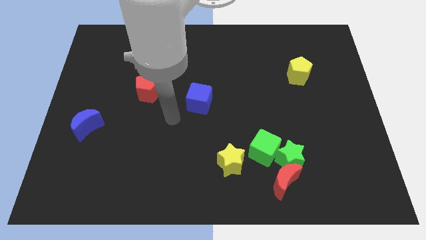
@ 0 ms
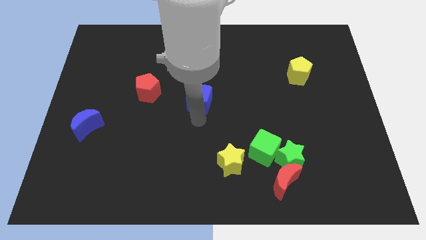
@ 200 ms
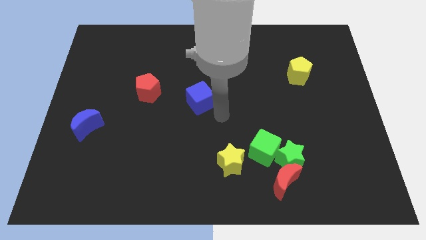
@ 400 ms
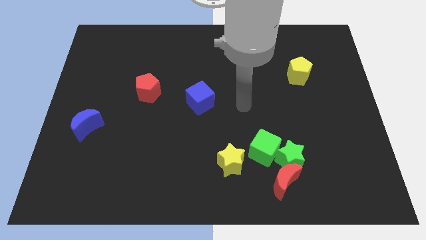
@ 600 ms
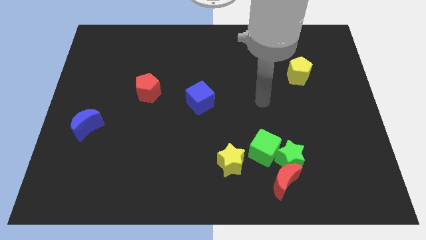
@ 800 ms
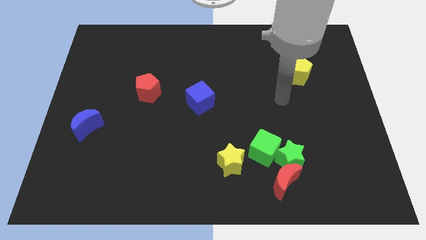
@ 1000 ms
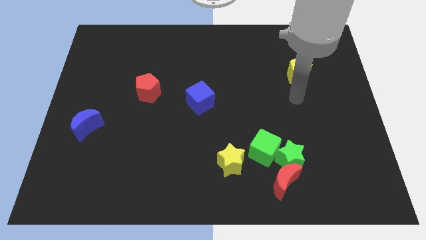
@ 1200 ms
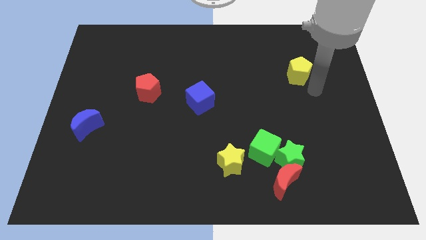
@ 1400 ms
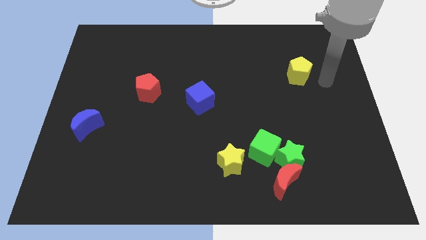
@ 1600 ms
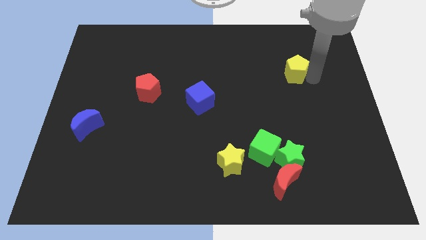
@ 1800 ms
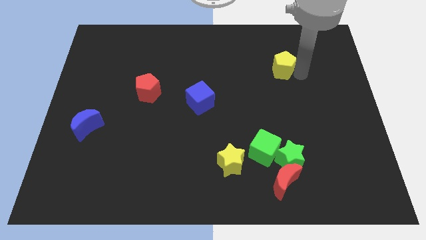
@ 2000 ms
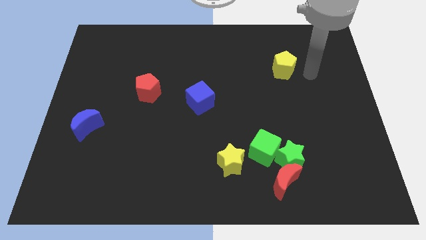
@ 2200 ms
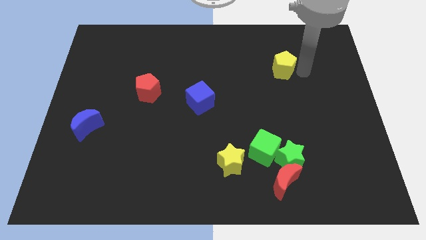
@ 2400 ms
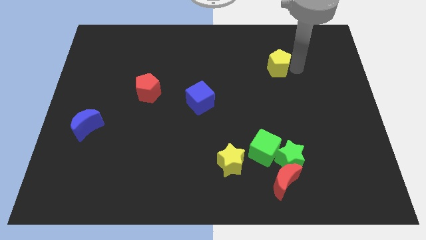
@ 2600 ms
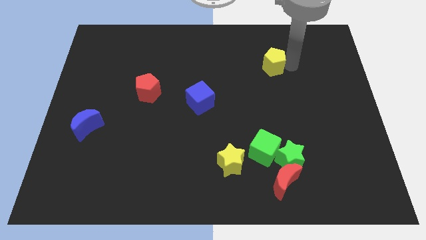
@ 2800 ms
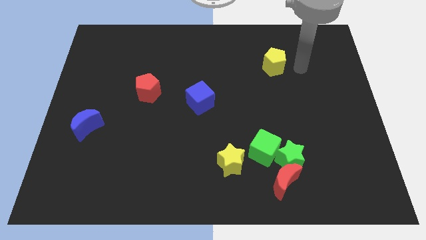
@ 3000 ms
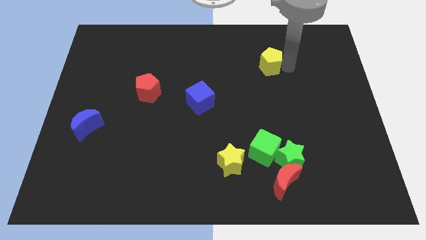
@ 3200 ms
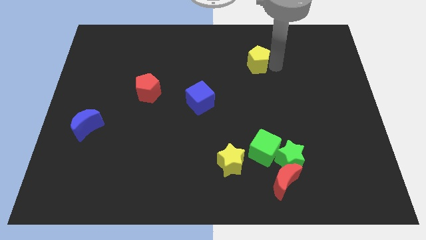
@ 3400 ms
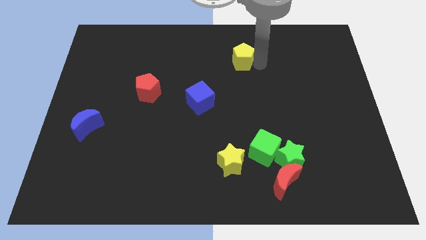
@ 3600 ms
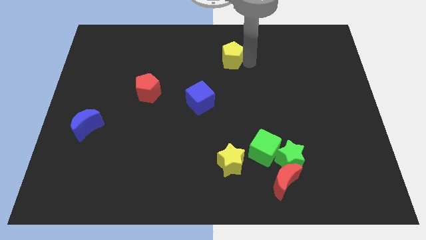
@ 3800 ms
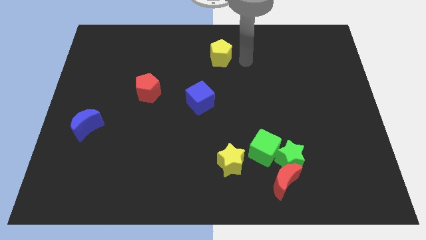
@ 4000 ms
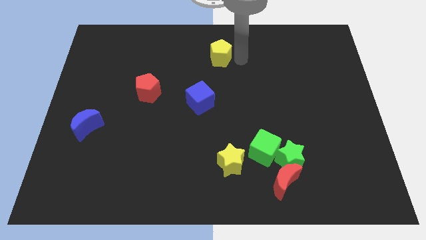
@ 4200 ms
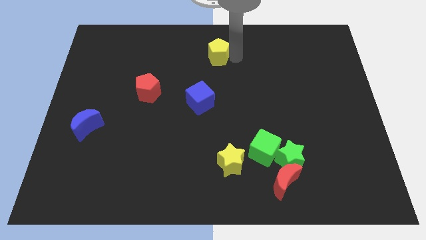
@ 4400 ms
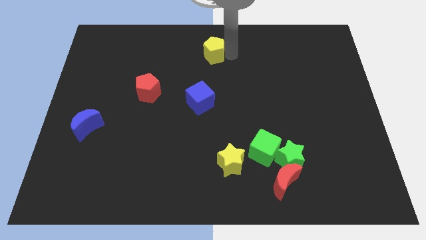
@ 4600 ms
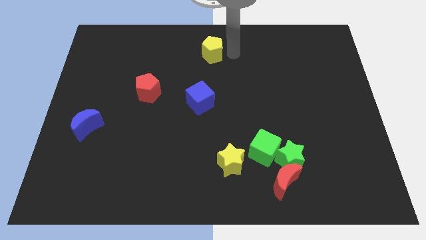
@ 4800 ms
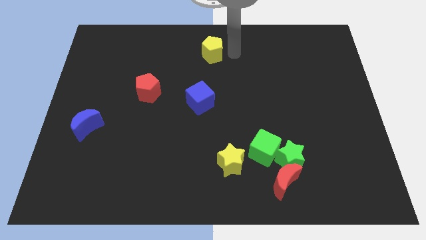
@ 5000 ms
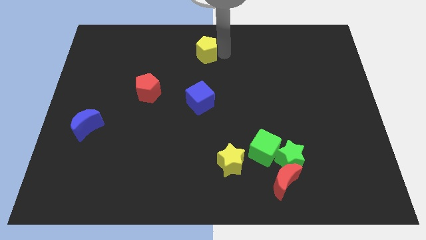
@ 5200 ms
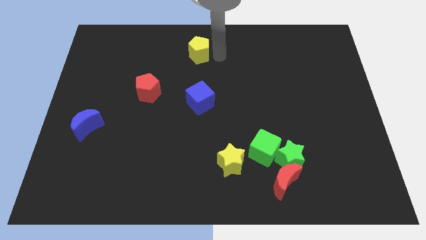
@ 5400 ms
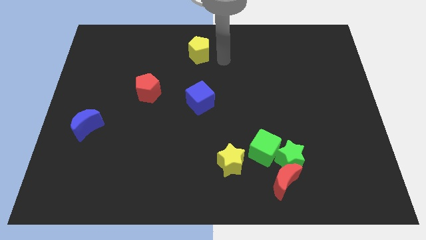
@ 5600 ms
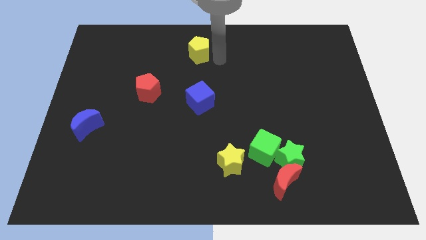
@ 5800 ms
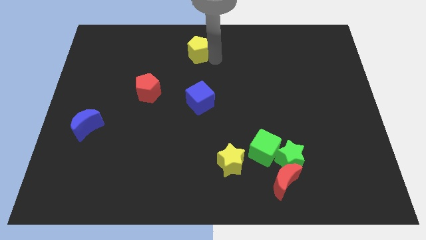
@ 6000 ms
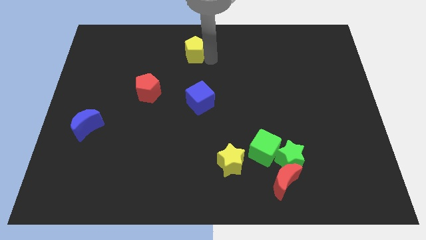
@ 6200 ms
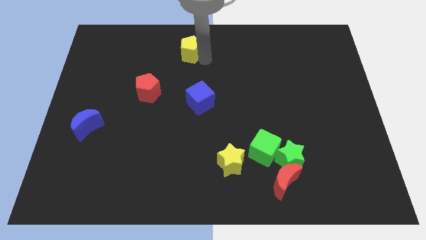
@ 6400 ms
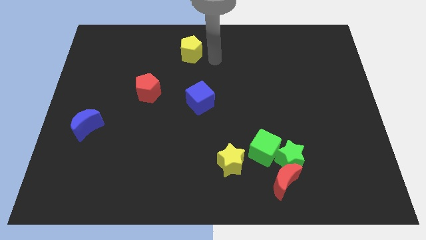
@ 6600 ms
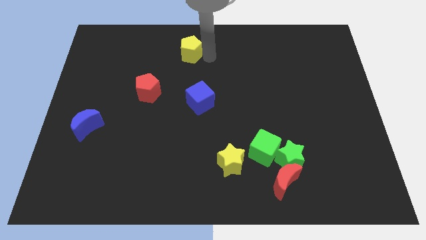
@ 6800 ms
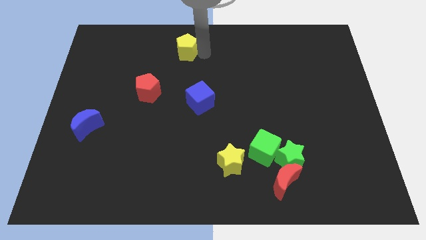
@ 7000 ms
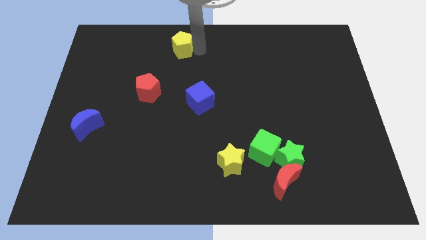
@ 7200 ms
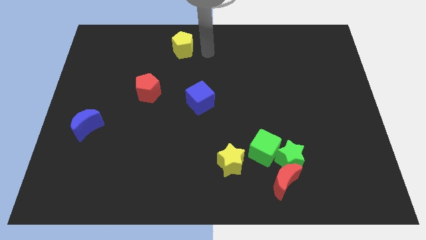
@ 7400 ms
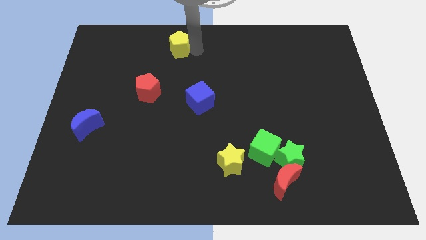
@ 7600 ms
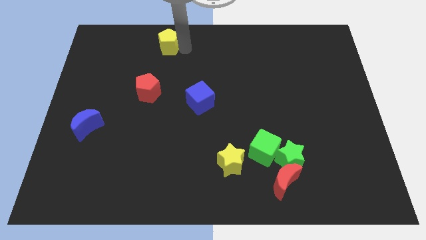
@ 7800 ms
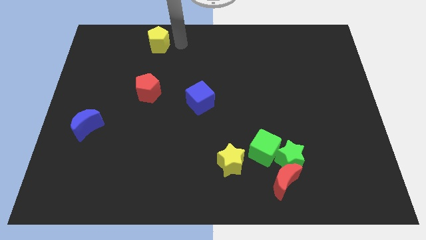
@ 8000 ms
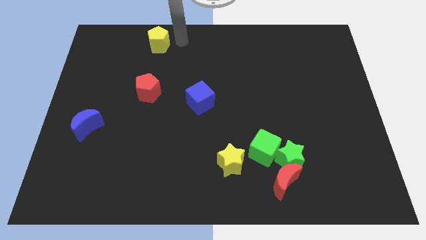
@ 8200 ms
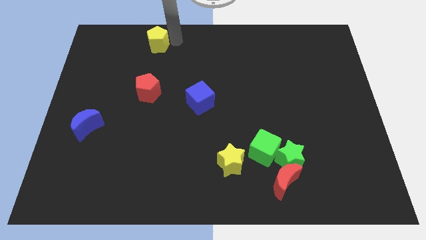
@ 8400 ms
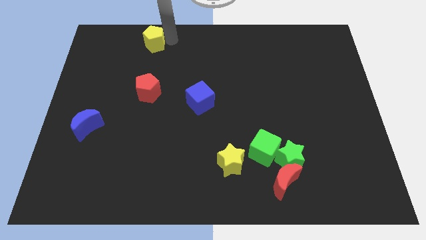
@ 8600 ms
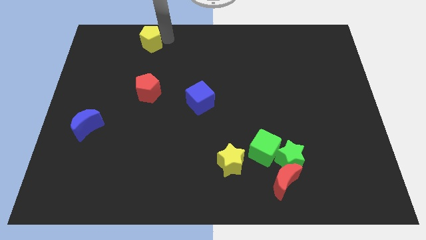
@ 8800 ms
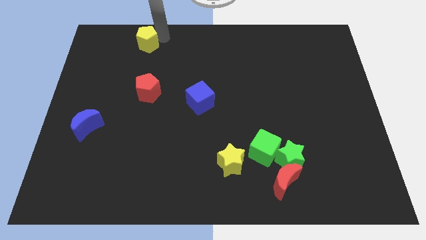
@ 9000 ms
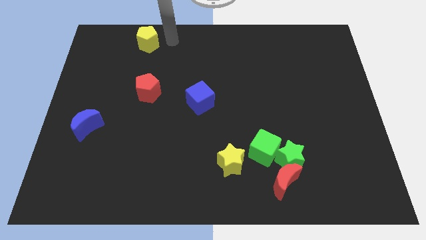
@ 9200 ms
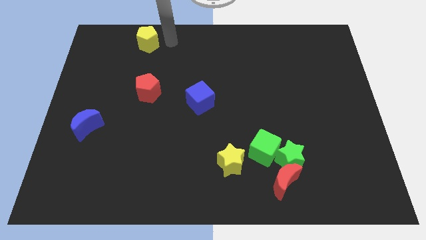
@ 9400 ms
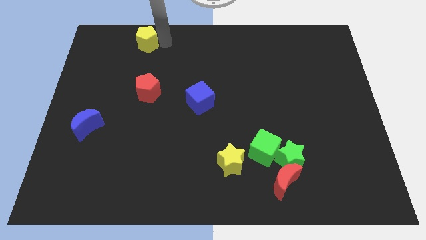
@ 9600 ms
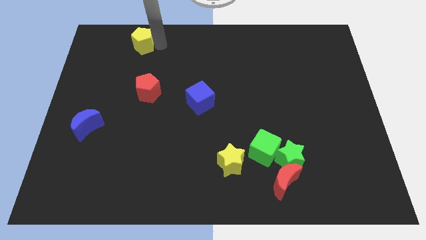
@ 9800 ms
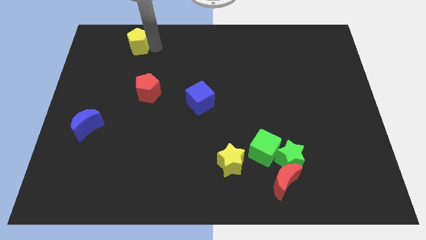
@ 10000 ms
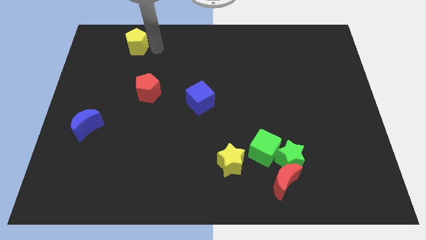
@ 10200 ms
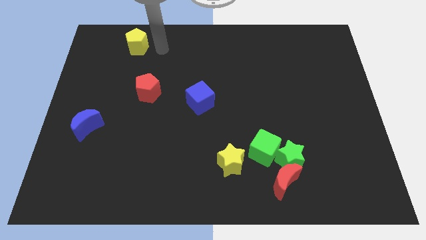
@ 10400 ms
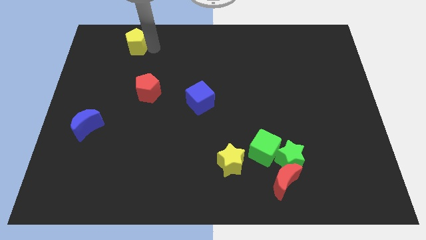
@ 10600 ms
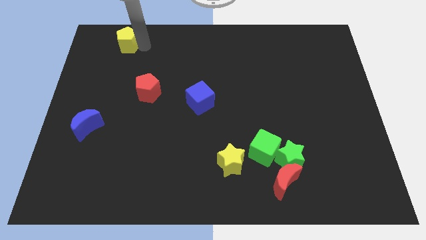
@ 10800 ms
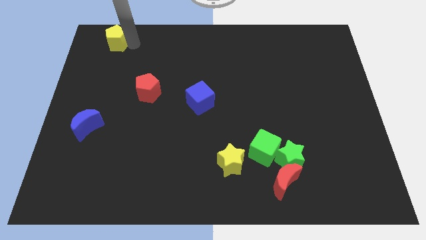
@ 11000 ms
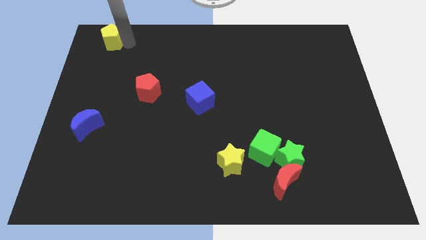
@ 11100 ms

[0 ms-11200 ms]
slide the yellow pentagon to the upper left corner

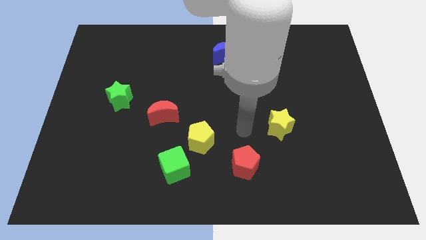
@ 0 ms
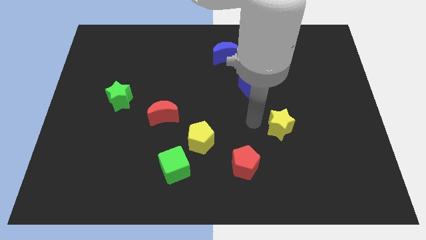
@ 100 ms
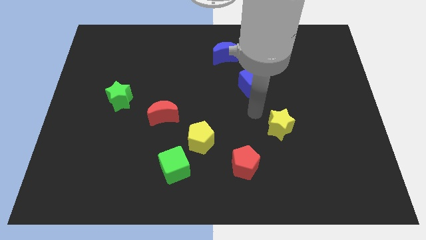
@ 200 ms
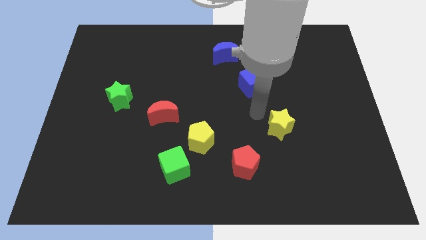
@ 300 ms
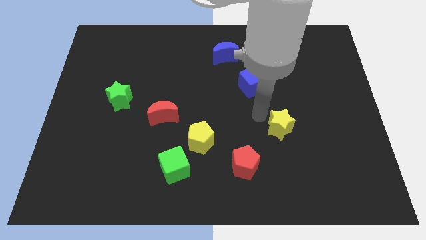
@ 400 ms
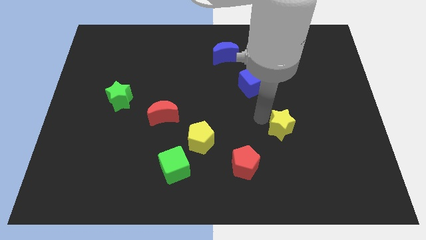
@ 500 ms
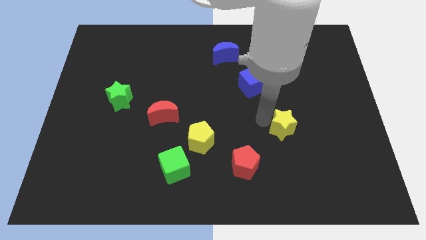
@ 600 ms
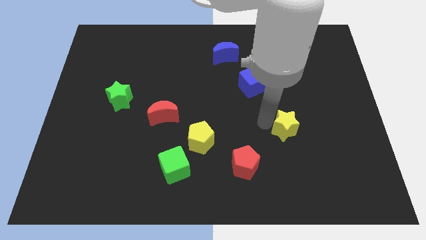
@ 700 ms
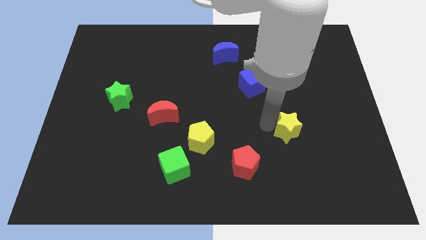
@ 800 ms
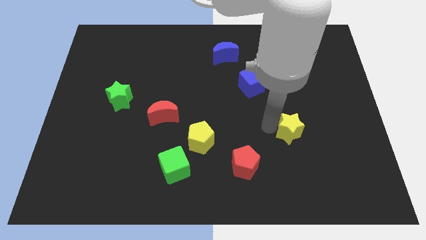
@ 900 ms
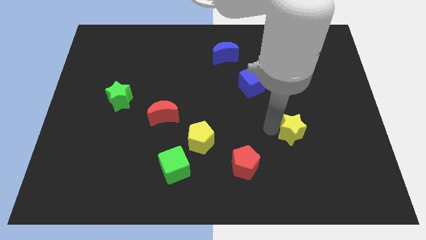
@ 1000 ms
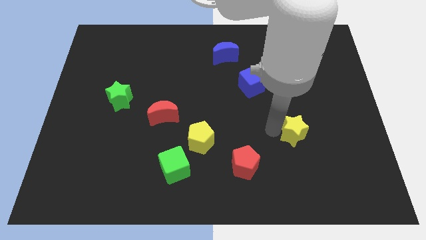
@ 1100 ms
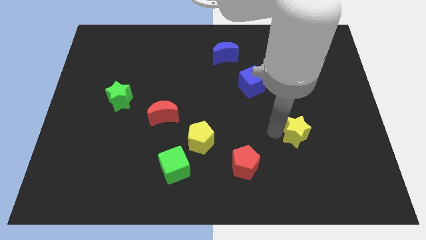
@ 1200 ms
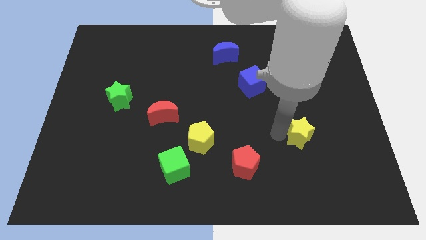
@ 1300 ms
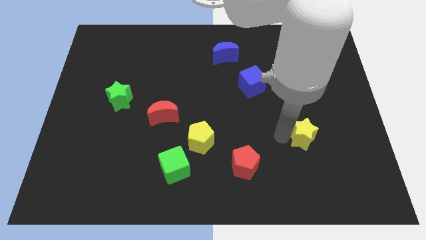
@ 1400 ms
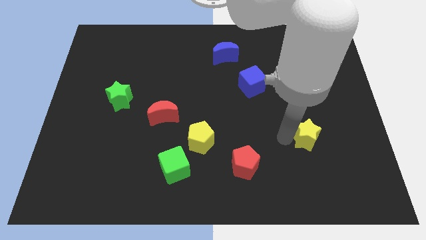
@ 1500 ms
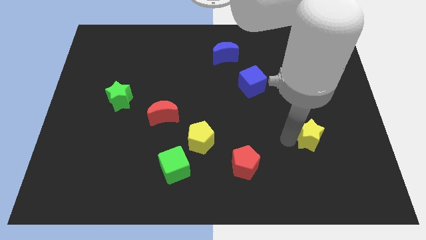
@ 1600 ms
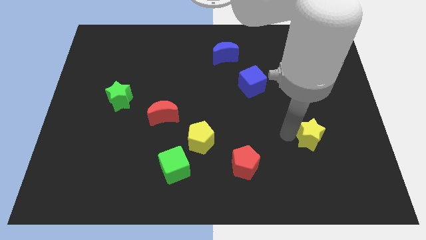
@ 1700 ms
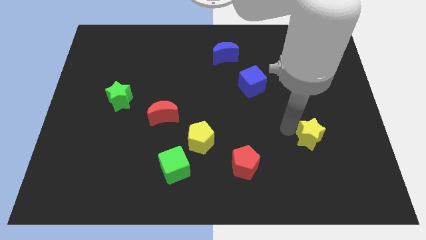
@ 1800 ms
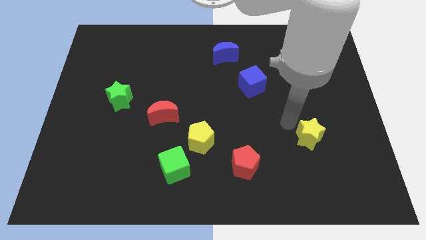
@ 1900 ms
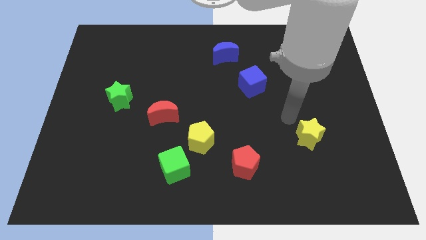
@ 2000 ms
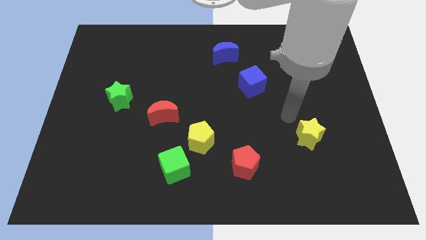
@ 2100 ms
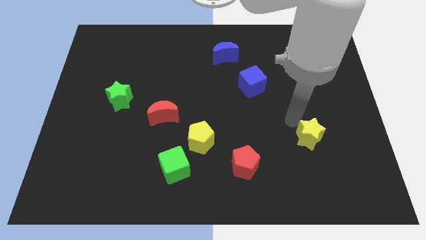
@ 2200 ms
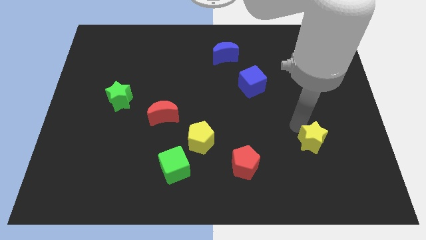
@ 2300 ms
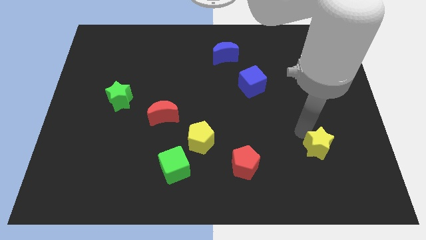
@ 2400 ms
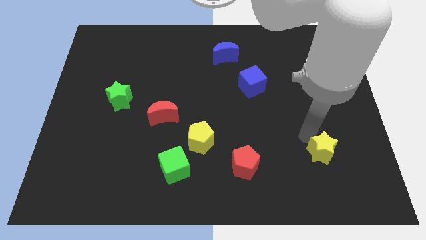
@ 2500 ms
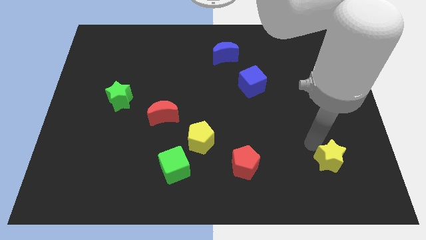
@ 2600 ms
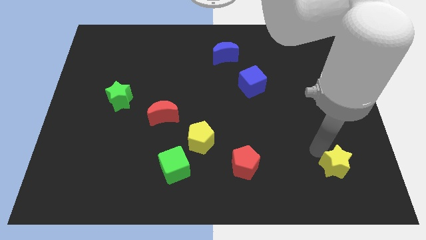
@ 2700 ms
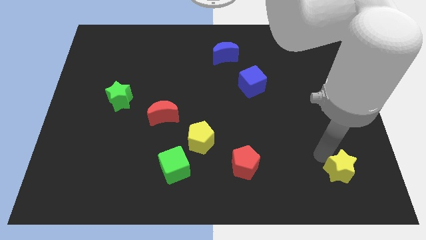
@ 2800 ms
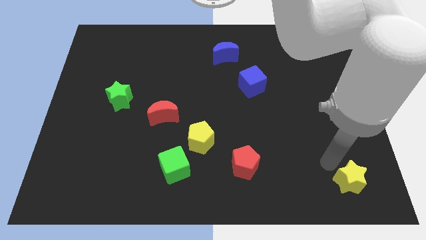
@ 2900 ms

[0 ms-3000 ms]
put the yellow star to the lower right corner
